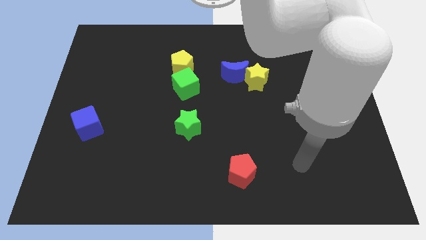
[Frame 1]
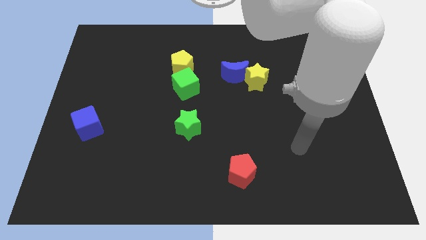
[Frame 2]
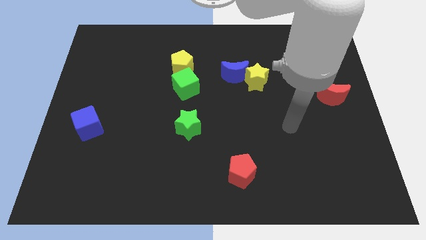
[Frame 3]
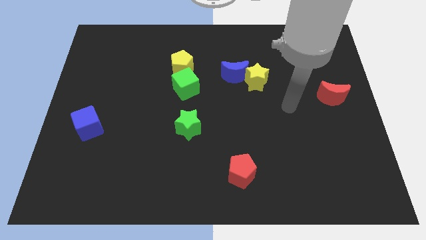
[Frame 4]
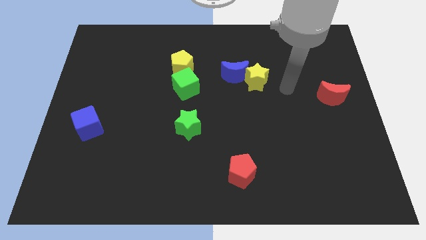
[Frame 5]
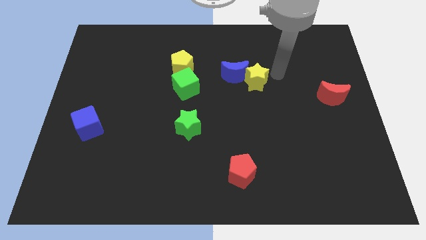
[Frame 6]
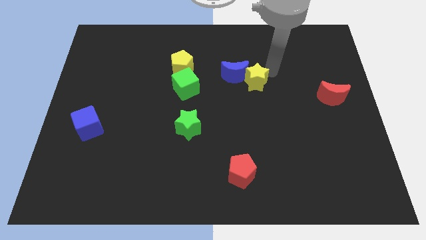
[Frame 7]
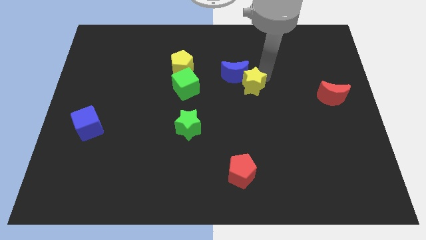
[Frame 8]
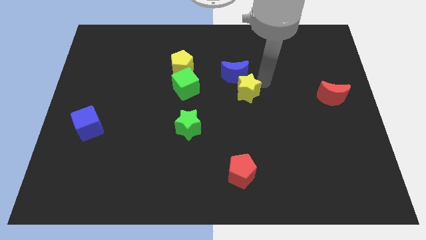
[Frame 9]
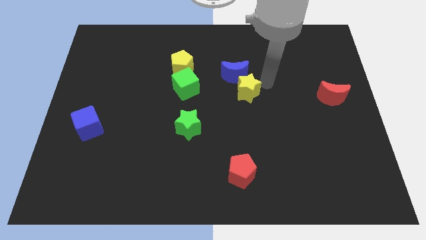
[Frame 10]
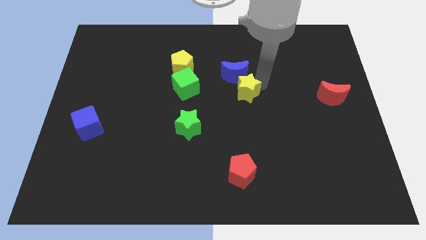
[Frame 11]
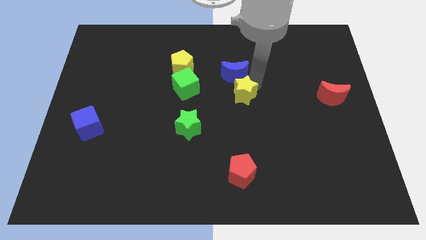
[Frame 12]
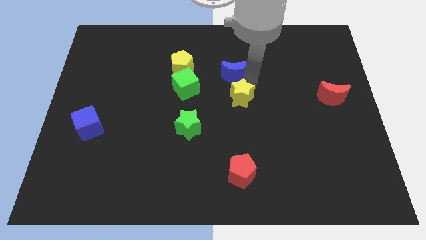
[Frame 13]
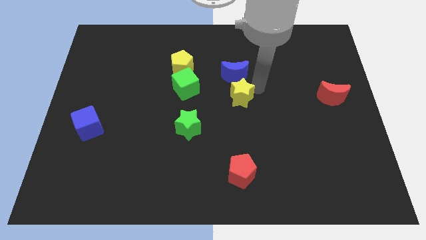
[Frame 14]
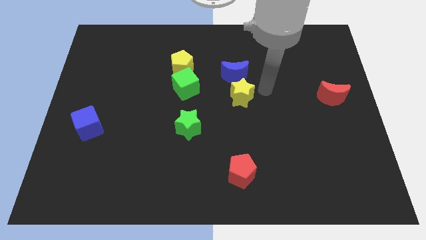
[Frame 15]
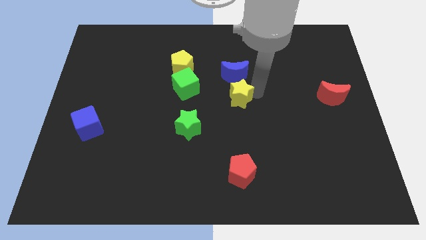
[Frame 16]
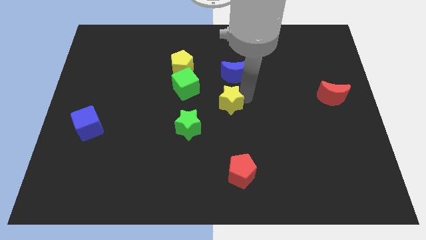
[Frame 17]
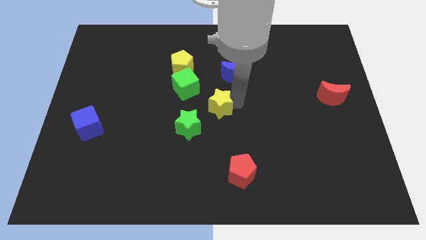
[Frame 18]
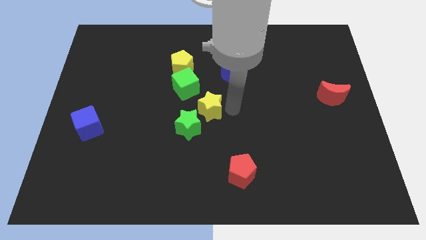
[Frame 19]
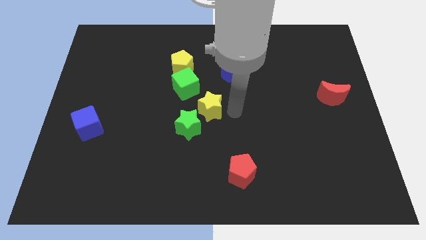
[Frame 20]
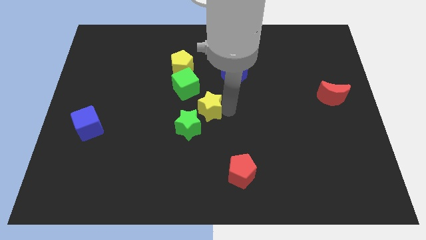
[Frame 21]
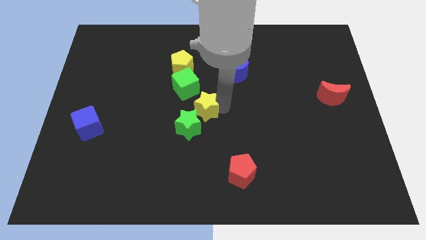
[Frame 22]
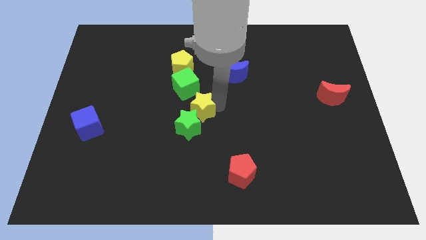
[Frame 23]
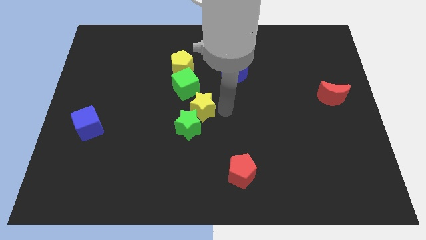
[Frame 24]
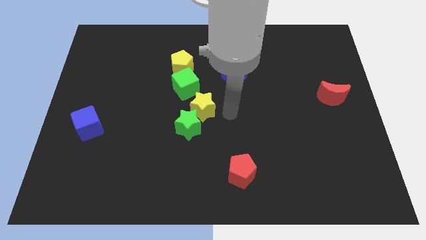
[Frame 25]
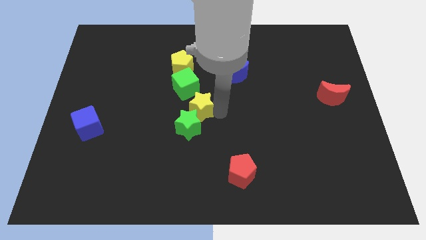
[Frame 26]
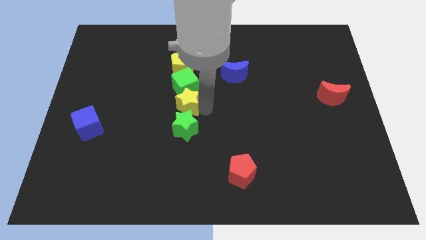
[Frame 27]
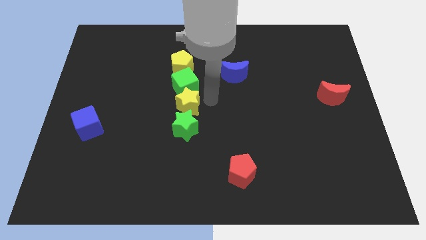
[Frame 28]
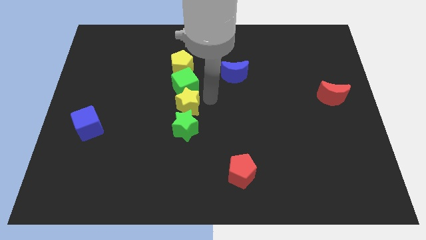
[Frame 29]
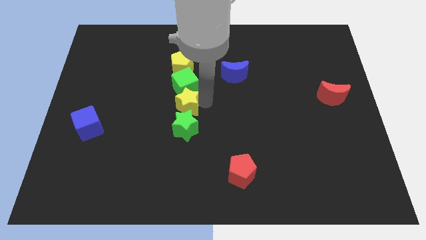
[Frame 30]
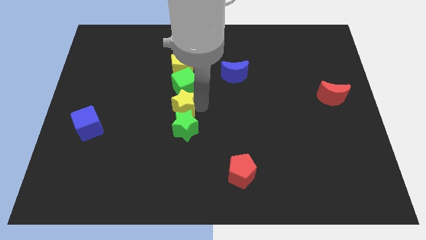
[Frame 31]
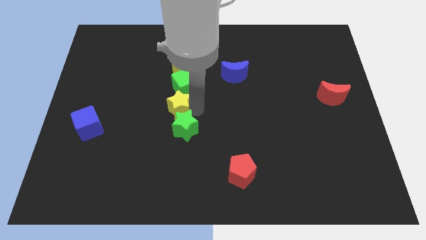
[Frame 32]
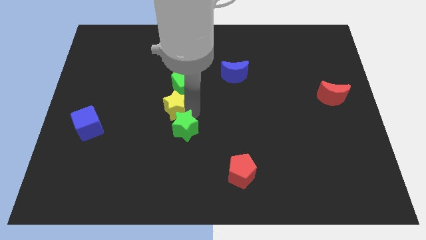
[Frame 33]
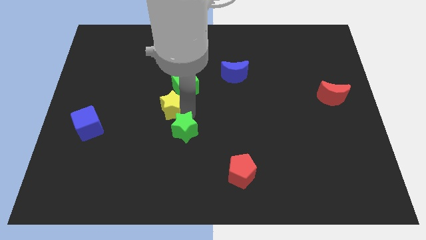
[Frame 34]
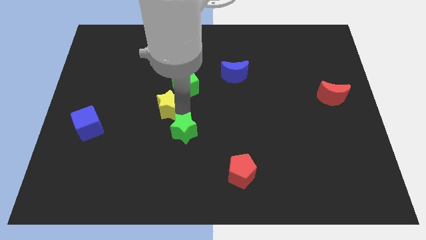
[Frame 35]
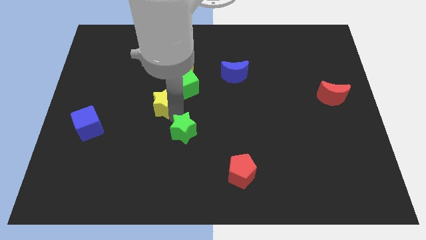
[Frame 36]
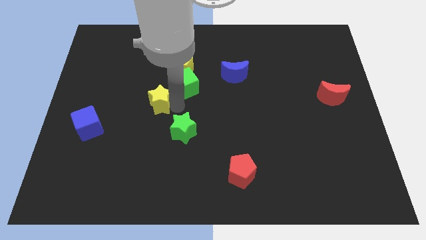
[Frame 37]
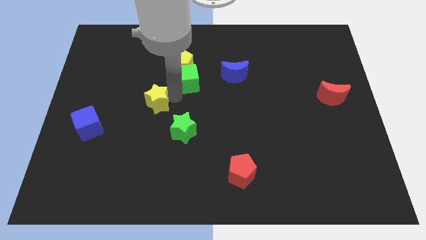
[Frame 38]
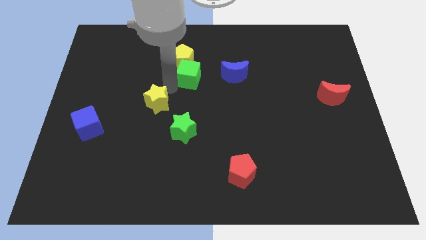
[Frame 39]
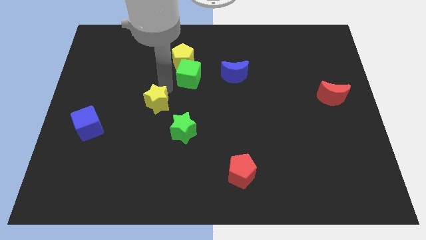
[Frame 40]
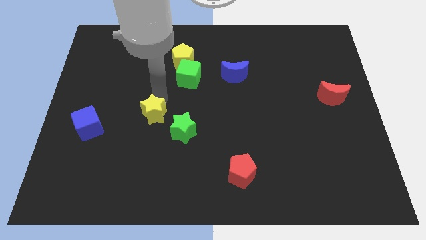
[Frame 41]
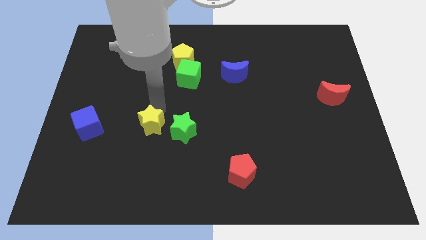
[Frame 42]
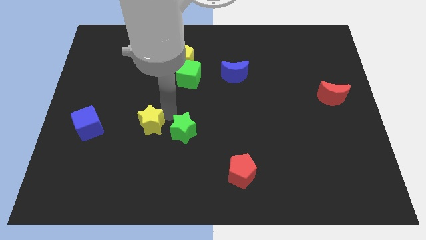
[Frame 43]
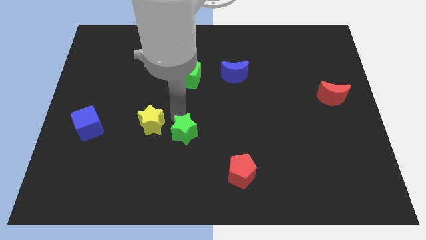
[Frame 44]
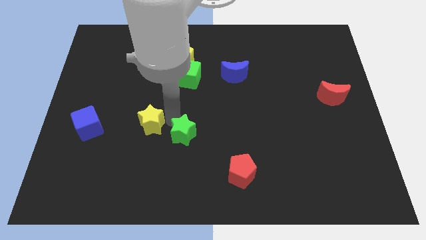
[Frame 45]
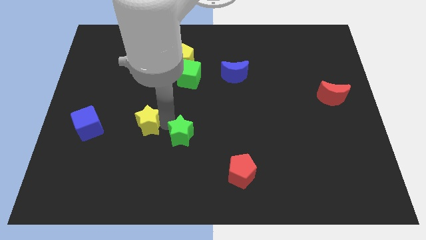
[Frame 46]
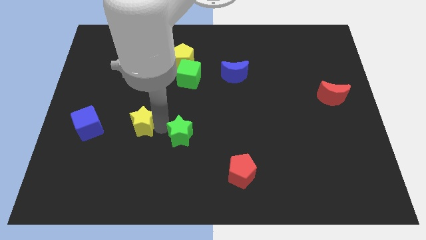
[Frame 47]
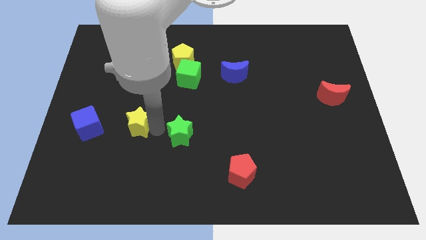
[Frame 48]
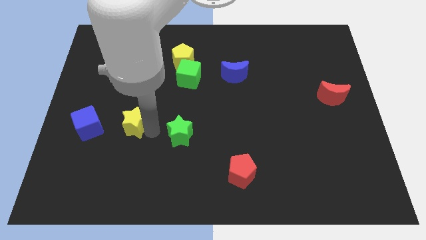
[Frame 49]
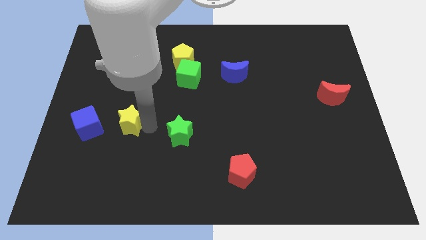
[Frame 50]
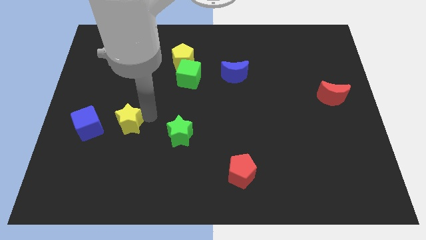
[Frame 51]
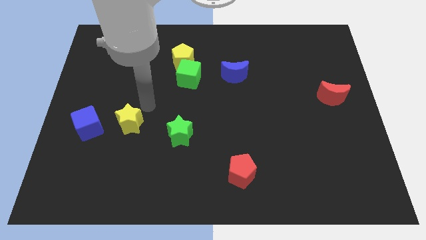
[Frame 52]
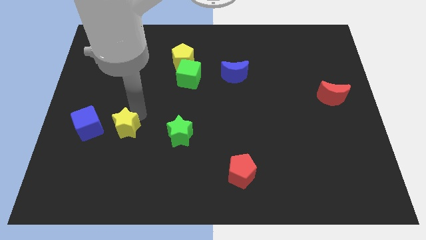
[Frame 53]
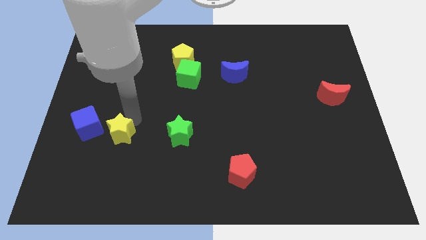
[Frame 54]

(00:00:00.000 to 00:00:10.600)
push the yellow star diagonally down and to the right of the blue cube

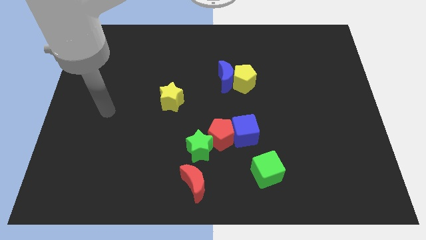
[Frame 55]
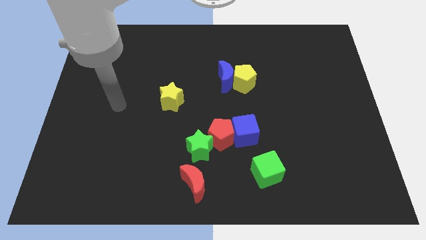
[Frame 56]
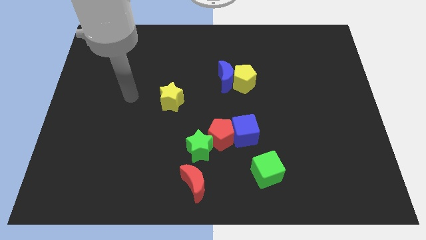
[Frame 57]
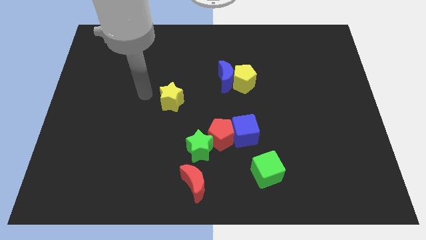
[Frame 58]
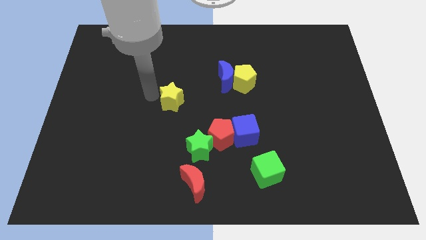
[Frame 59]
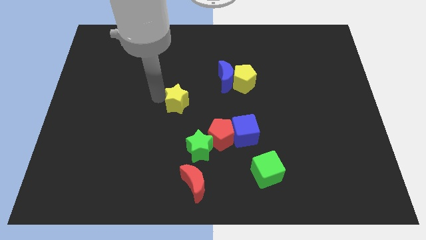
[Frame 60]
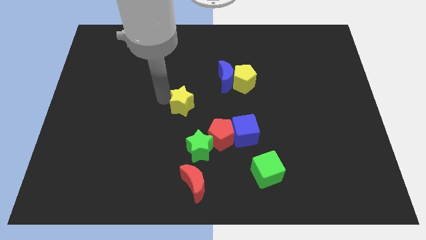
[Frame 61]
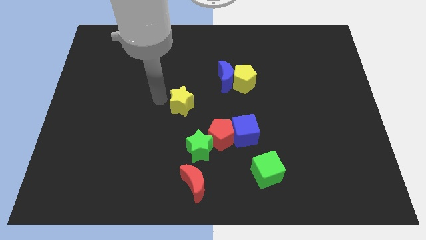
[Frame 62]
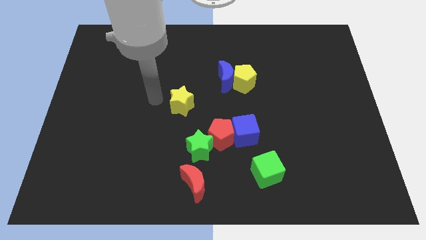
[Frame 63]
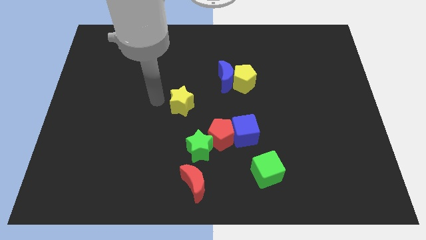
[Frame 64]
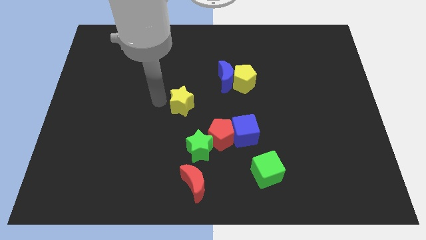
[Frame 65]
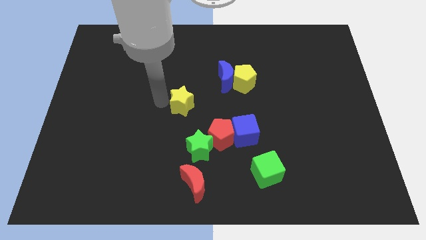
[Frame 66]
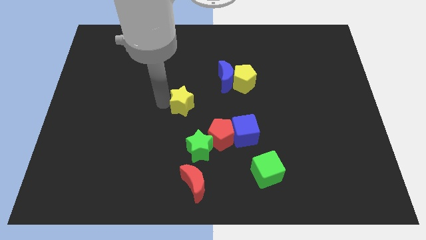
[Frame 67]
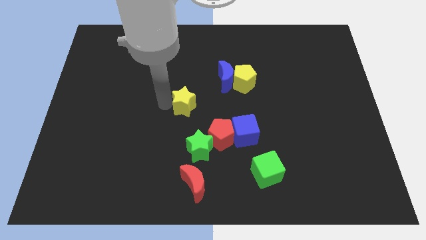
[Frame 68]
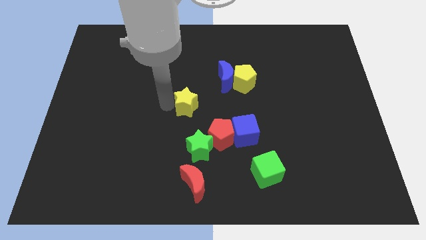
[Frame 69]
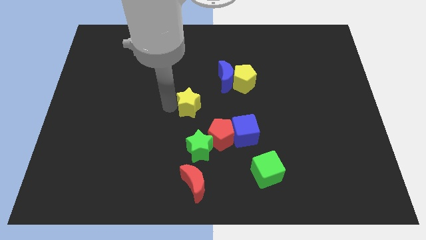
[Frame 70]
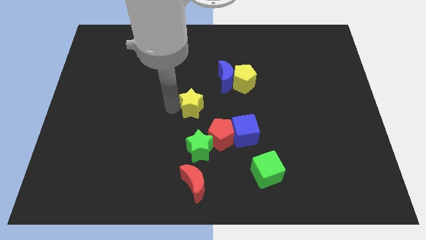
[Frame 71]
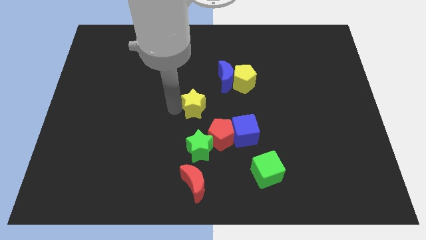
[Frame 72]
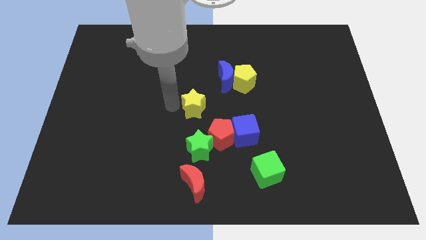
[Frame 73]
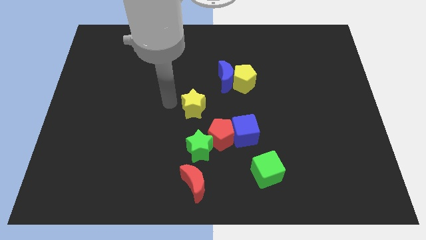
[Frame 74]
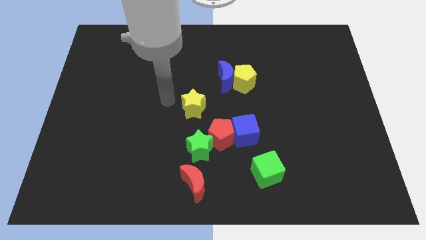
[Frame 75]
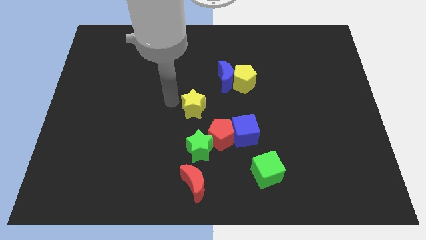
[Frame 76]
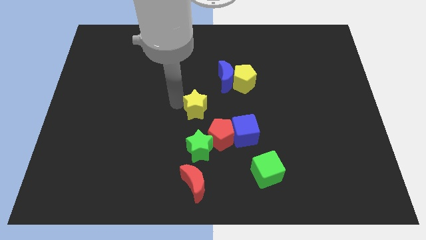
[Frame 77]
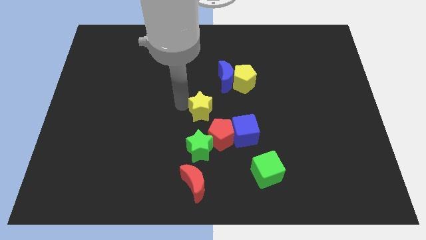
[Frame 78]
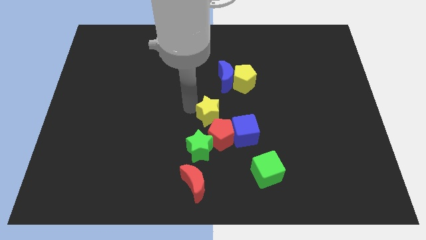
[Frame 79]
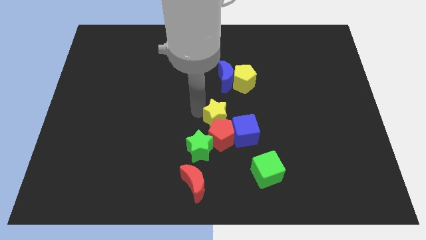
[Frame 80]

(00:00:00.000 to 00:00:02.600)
move the yellow star to the top right side of the red pentagon
